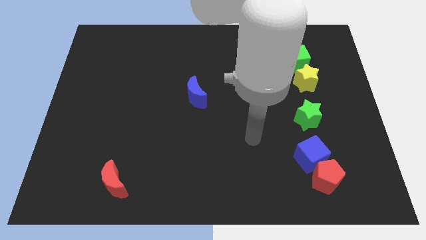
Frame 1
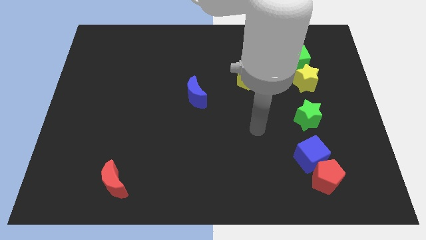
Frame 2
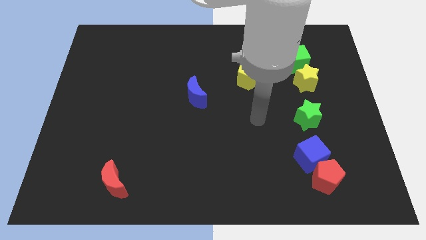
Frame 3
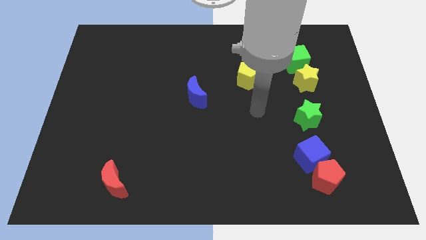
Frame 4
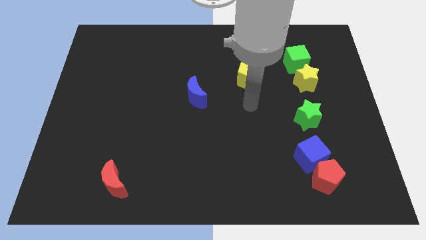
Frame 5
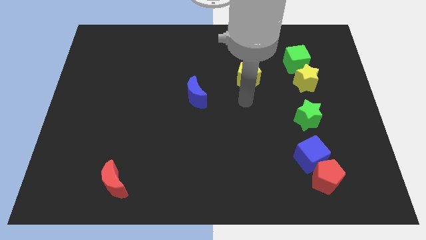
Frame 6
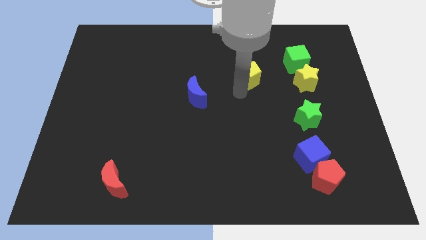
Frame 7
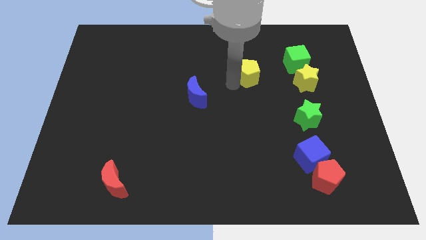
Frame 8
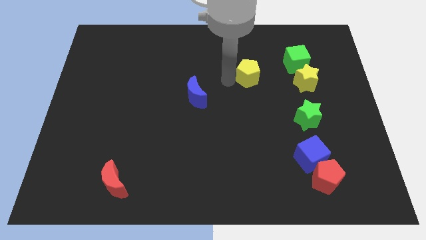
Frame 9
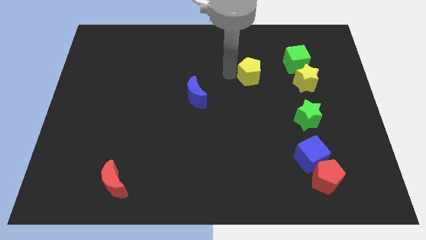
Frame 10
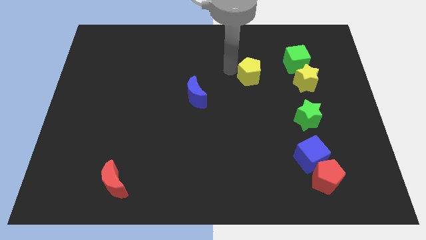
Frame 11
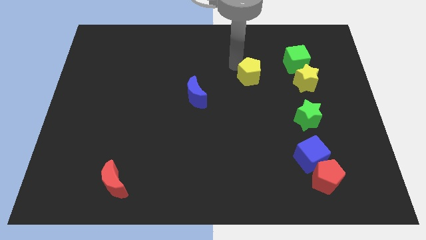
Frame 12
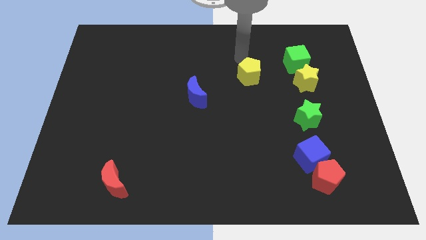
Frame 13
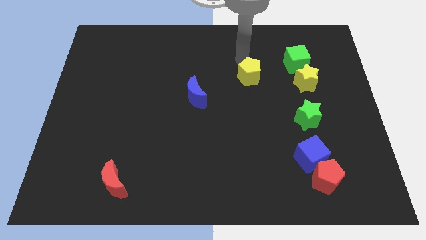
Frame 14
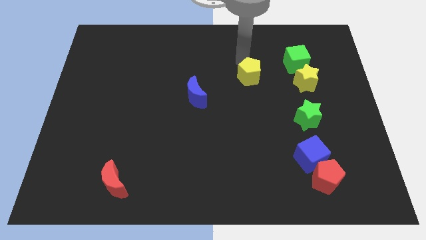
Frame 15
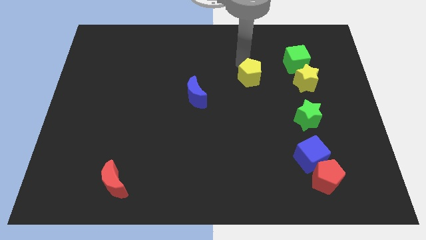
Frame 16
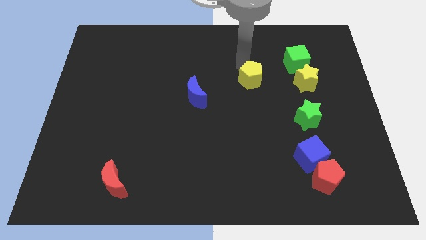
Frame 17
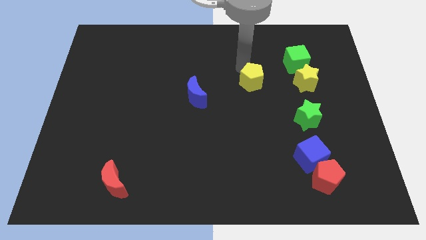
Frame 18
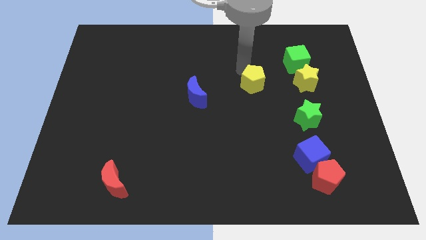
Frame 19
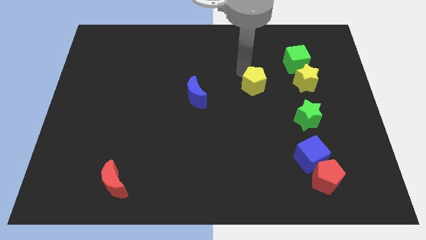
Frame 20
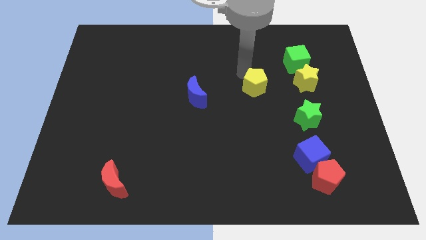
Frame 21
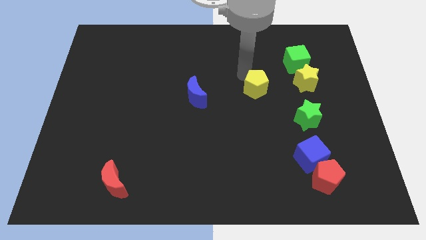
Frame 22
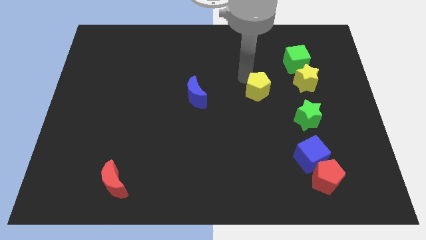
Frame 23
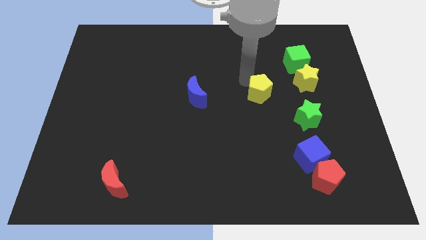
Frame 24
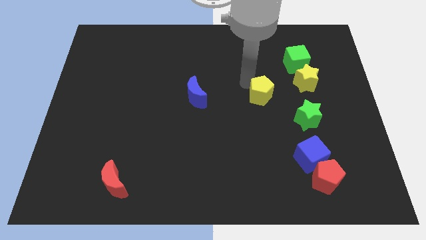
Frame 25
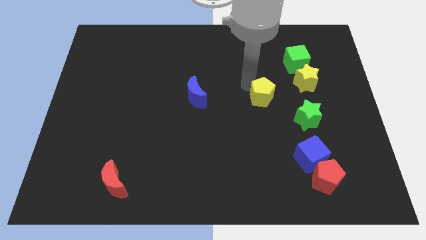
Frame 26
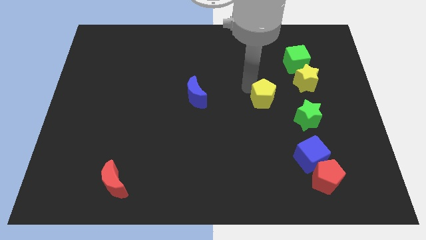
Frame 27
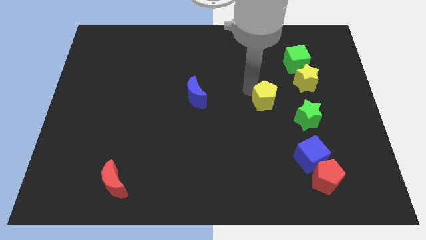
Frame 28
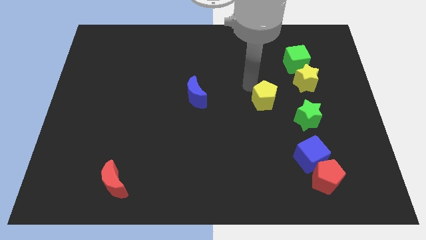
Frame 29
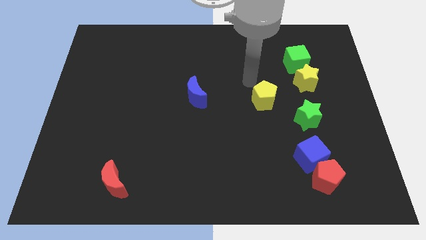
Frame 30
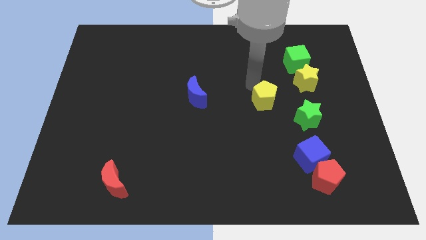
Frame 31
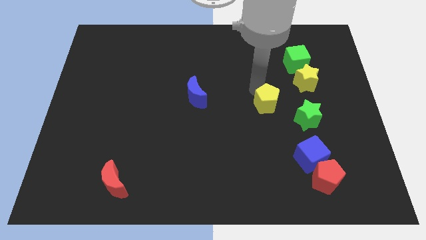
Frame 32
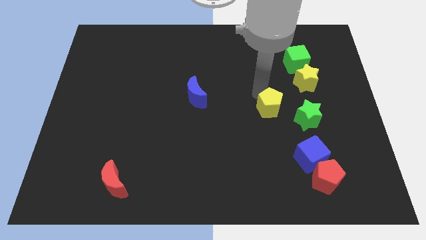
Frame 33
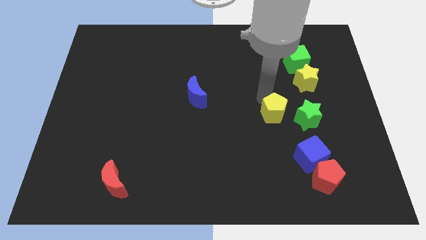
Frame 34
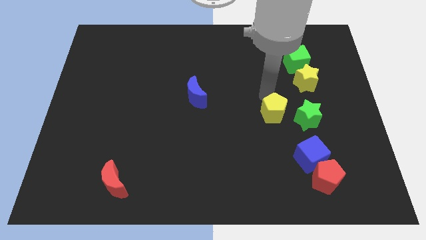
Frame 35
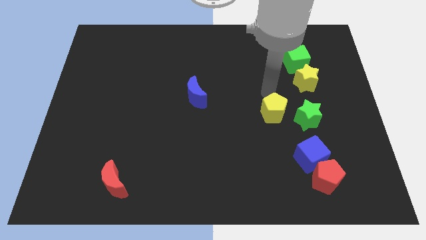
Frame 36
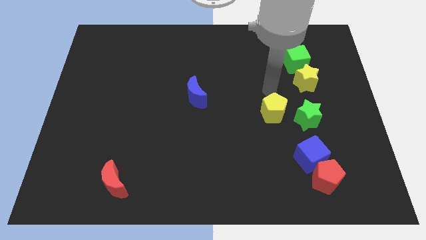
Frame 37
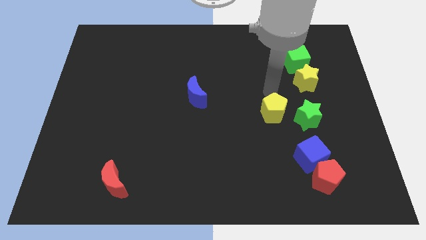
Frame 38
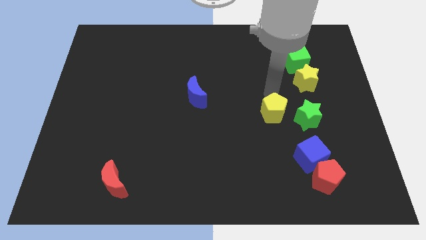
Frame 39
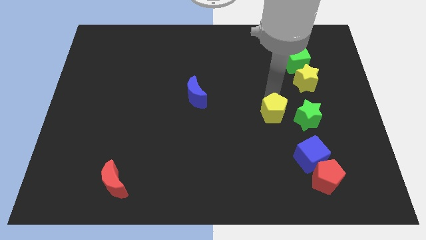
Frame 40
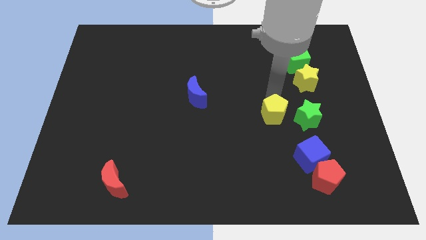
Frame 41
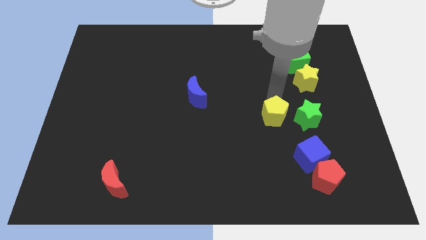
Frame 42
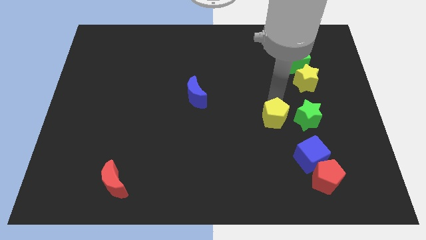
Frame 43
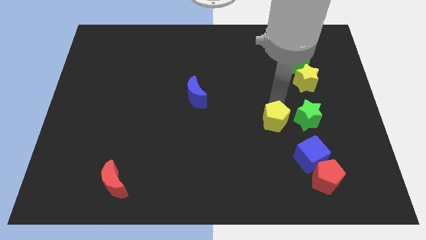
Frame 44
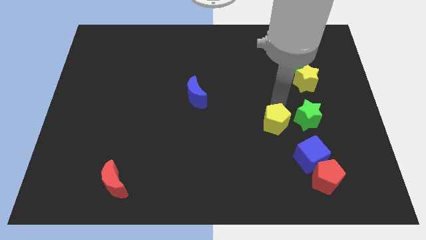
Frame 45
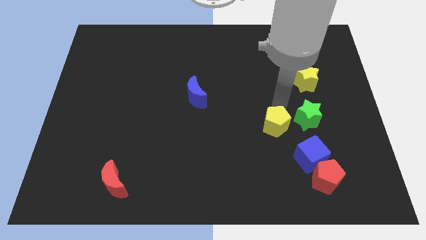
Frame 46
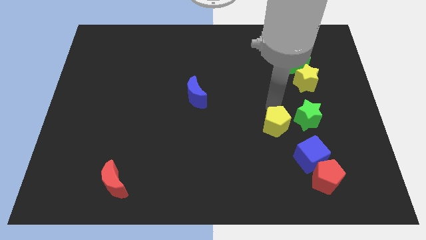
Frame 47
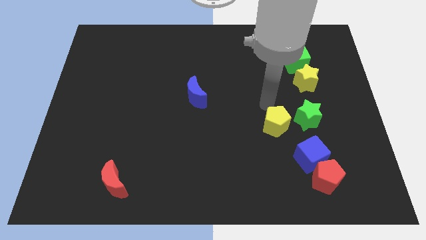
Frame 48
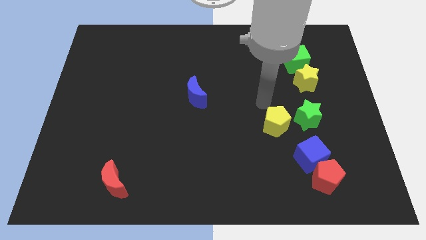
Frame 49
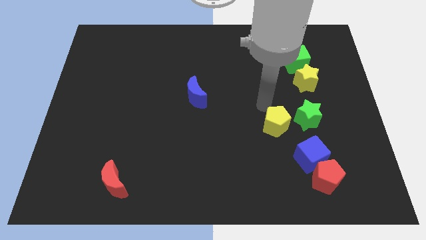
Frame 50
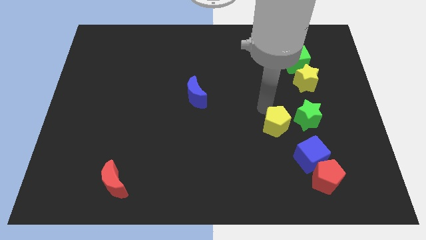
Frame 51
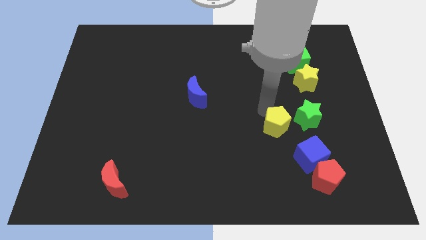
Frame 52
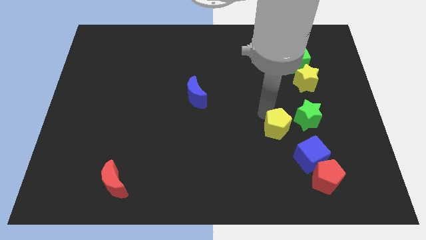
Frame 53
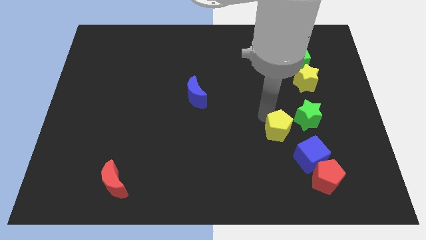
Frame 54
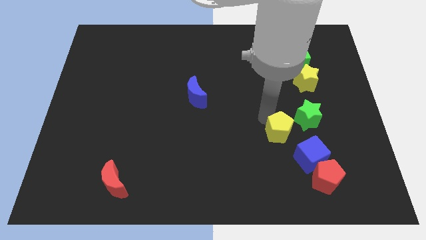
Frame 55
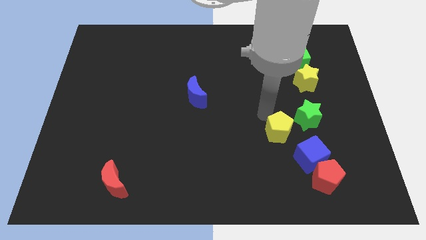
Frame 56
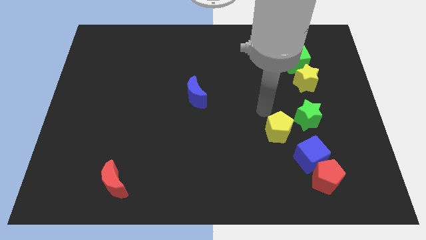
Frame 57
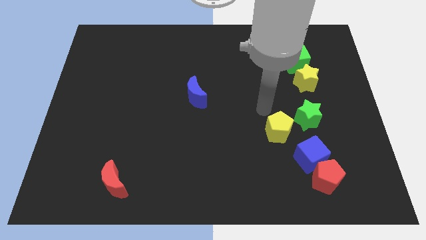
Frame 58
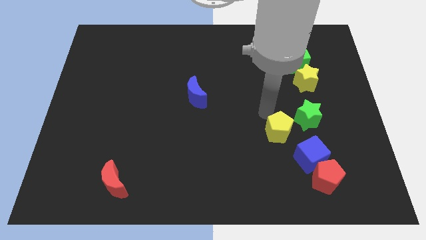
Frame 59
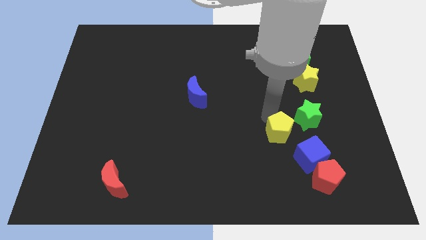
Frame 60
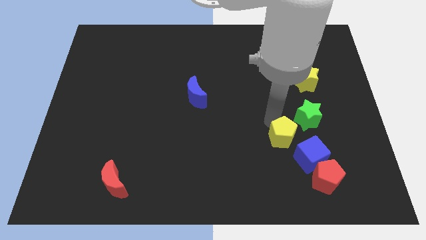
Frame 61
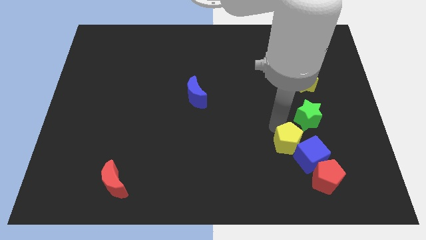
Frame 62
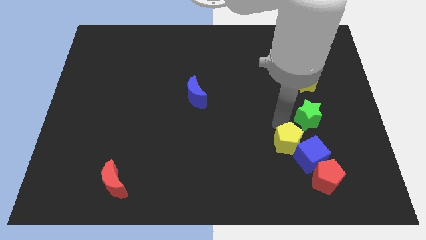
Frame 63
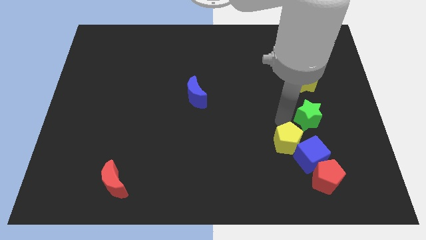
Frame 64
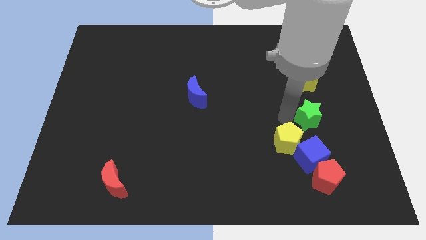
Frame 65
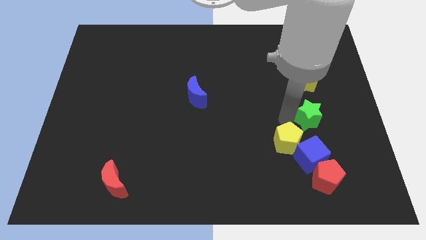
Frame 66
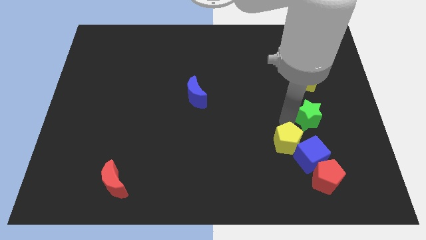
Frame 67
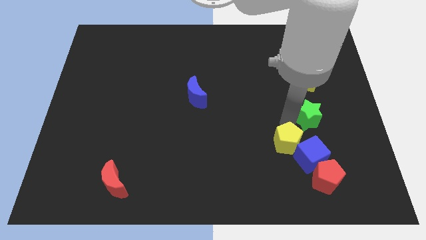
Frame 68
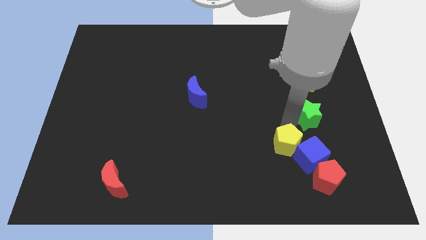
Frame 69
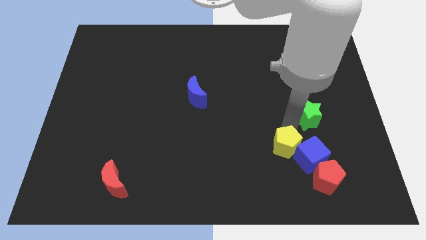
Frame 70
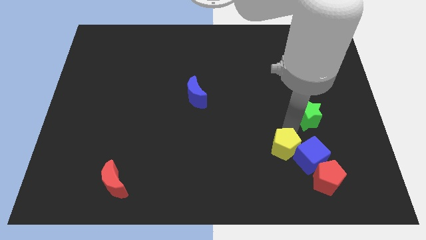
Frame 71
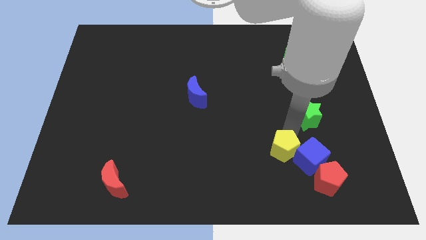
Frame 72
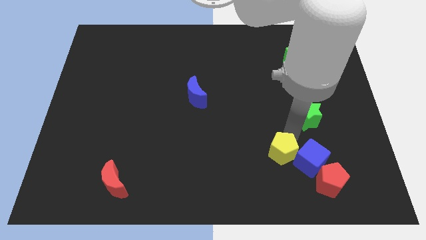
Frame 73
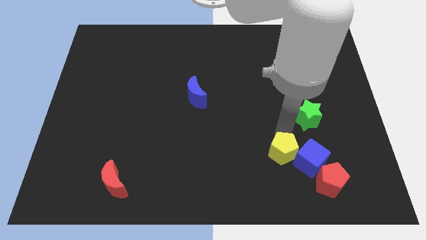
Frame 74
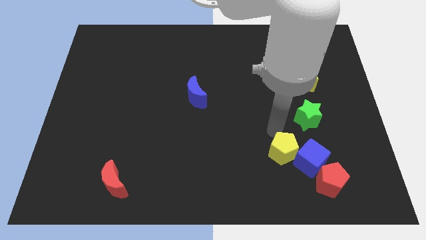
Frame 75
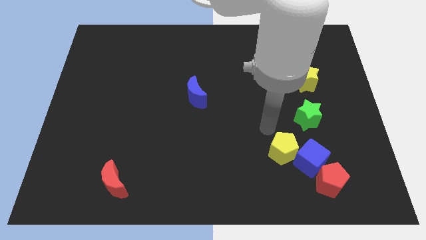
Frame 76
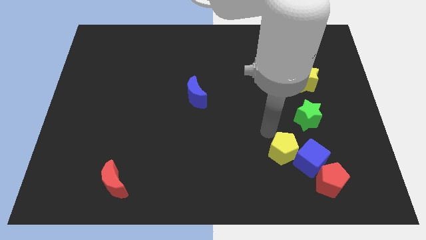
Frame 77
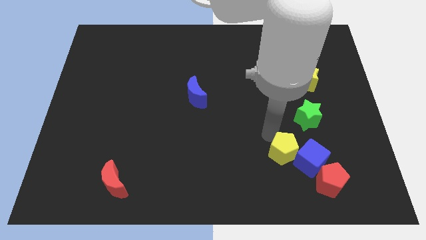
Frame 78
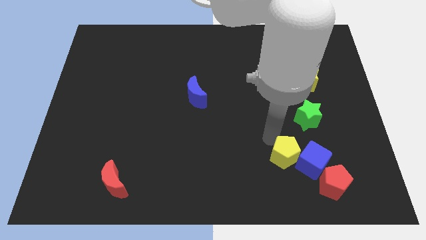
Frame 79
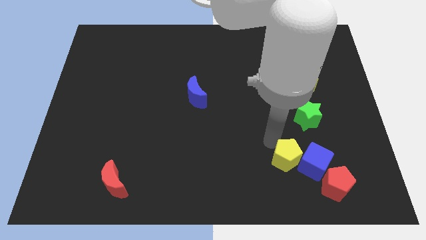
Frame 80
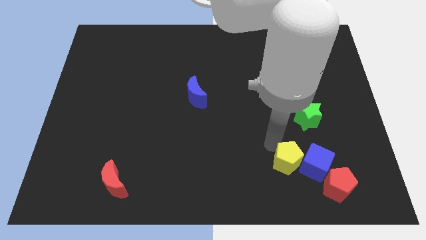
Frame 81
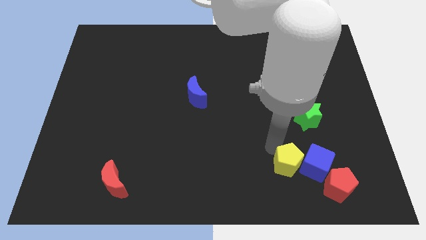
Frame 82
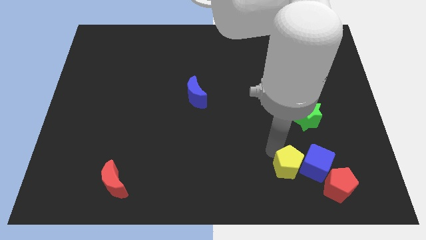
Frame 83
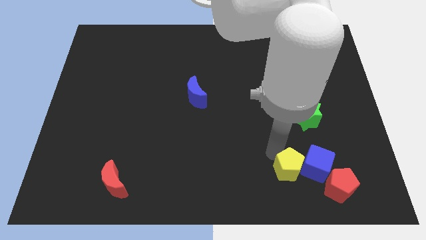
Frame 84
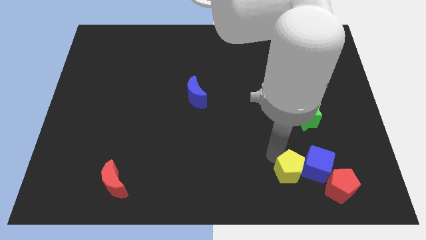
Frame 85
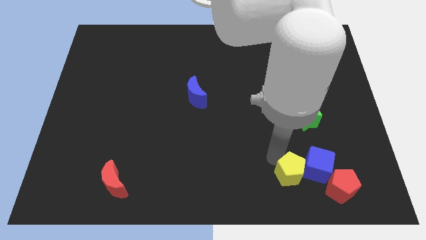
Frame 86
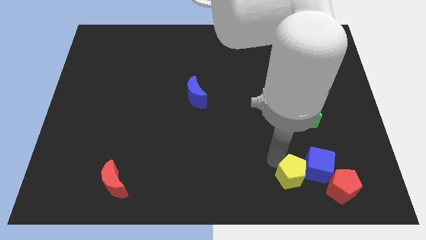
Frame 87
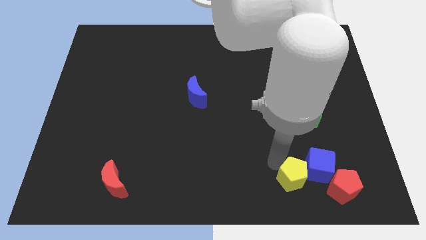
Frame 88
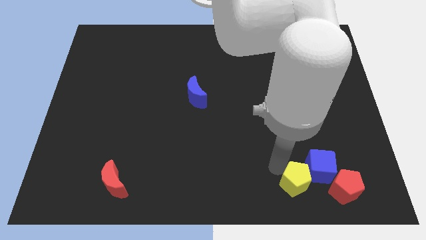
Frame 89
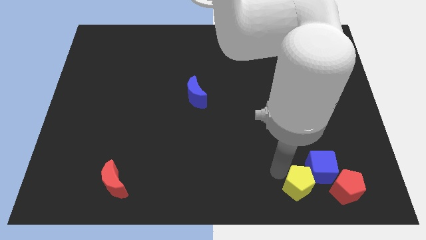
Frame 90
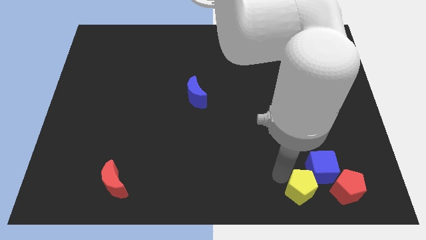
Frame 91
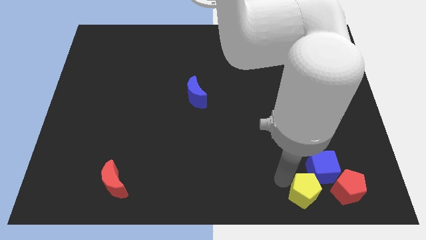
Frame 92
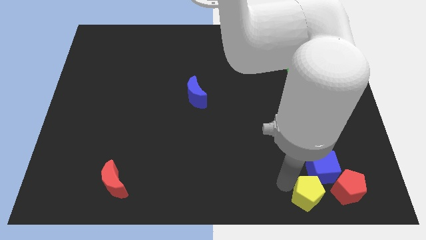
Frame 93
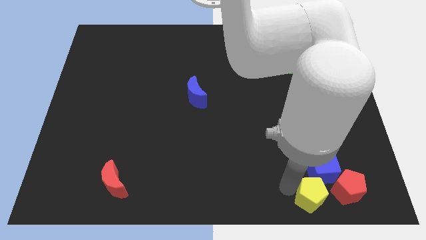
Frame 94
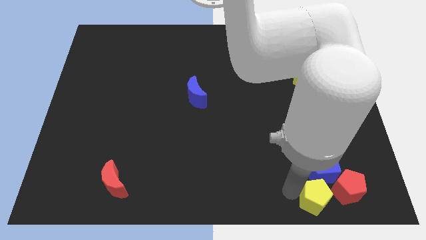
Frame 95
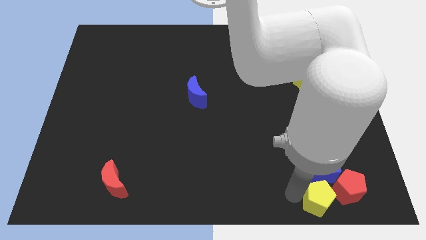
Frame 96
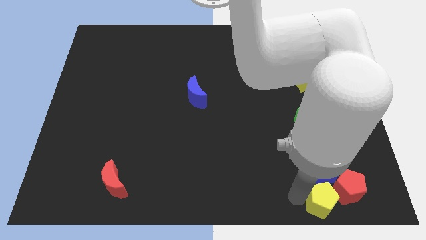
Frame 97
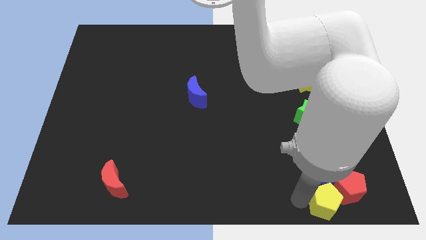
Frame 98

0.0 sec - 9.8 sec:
slide the yellow pentagon to the red pentagon
